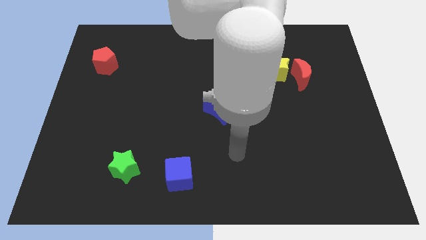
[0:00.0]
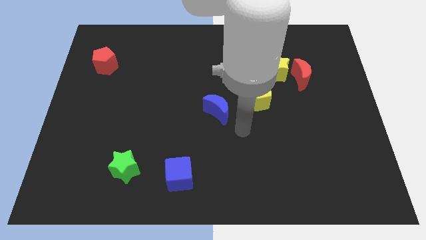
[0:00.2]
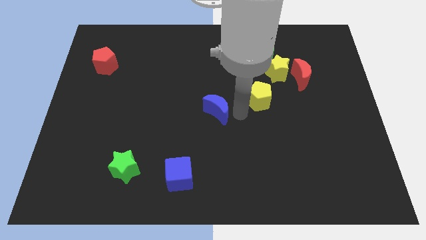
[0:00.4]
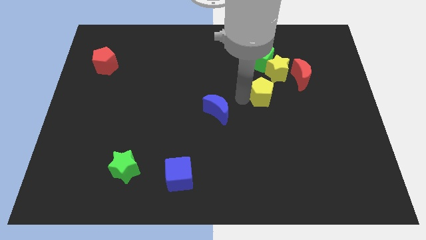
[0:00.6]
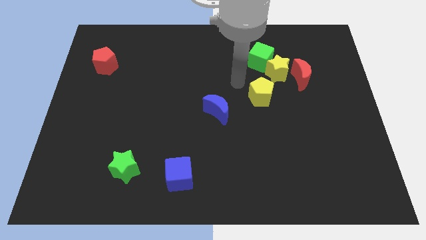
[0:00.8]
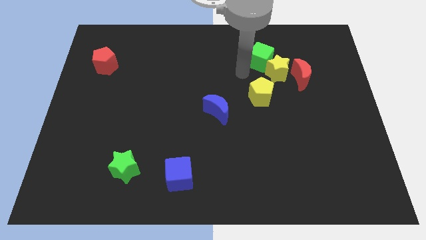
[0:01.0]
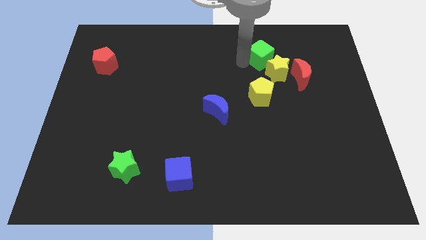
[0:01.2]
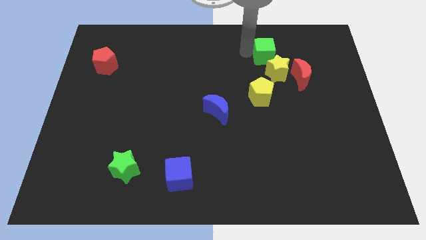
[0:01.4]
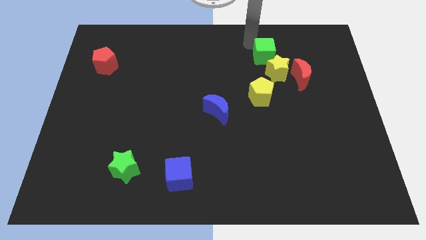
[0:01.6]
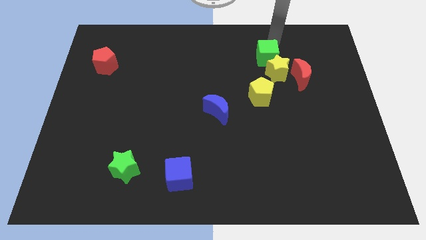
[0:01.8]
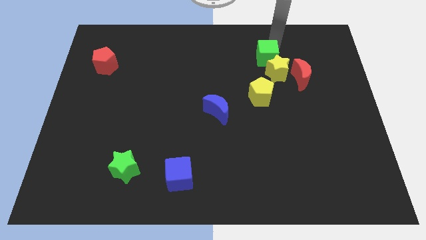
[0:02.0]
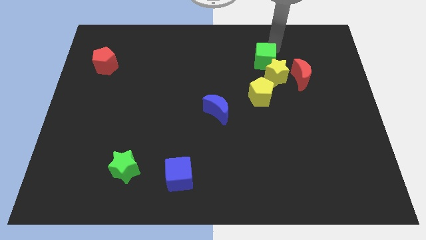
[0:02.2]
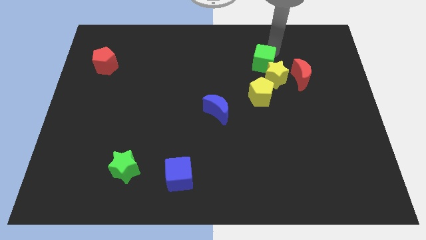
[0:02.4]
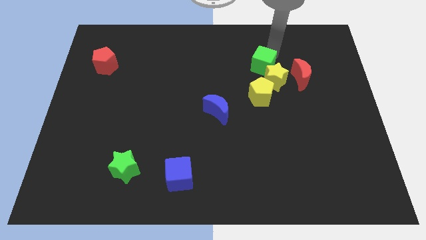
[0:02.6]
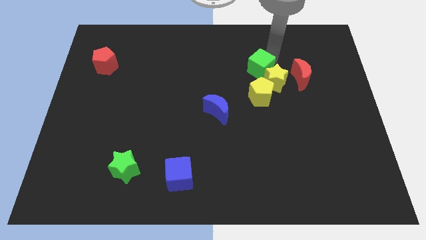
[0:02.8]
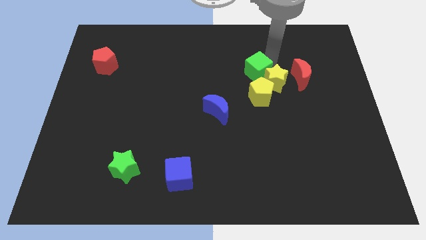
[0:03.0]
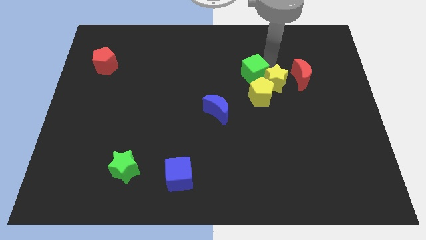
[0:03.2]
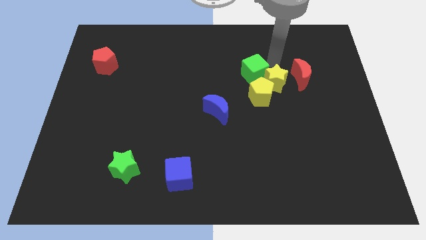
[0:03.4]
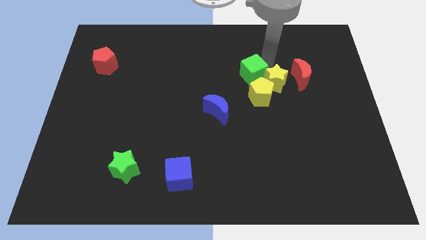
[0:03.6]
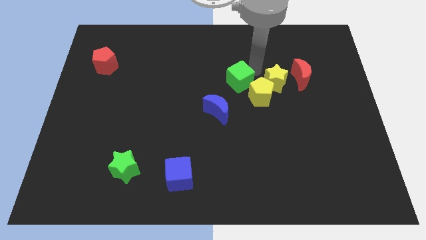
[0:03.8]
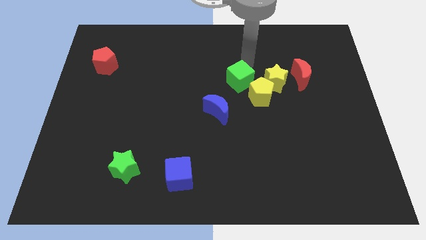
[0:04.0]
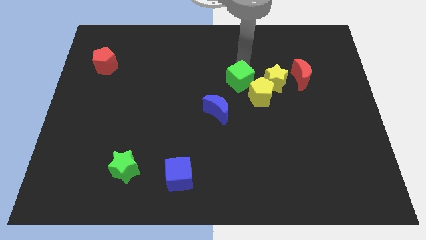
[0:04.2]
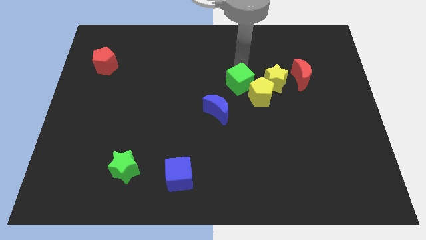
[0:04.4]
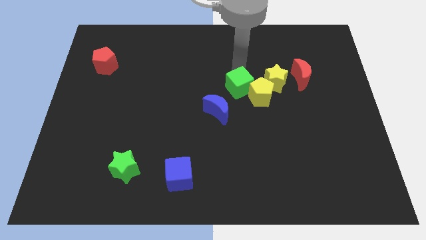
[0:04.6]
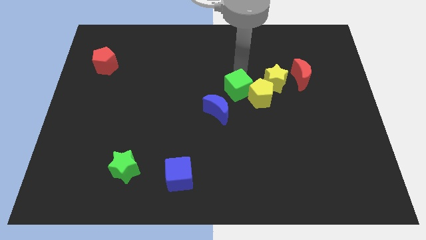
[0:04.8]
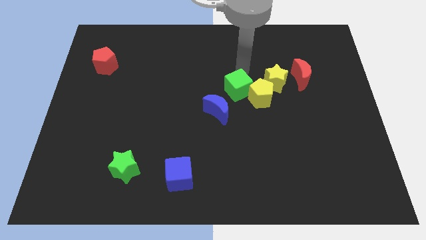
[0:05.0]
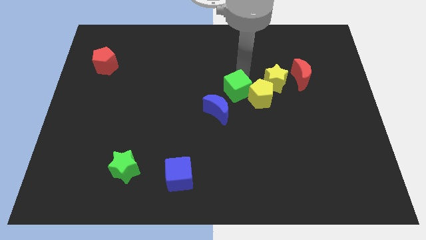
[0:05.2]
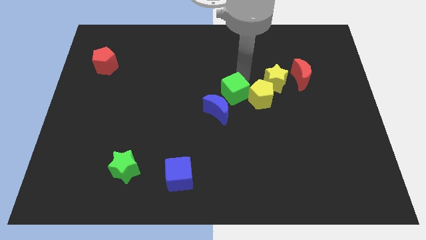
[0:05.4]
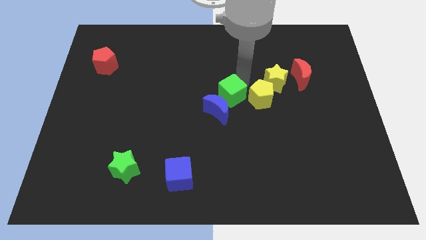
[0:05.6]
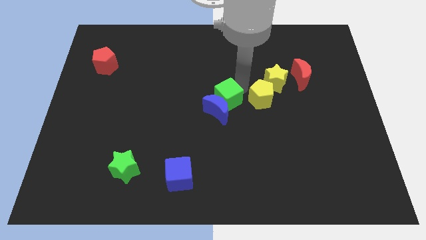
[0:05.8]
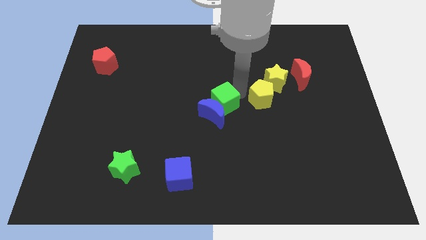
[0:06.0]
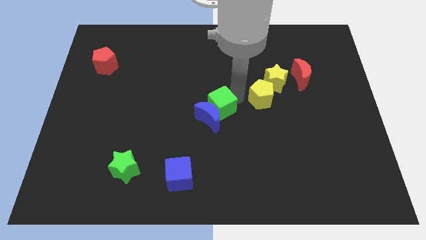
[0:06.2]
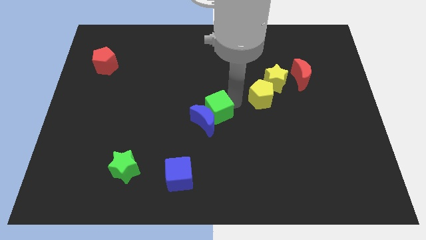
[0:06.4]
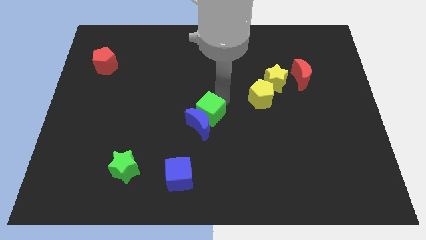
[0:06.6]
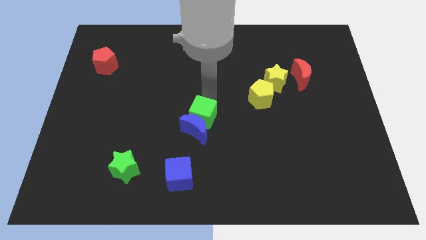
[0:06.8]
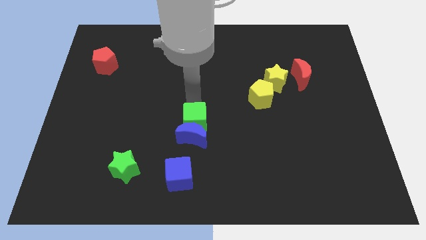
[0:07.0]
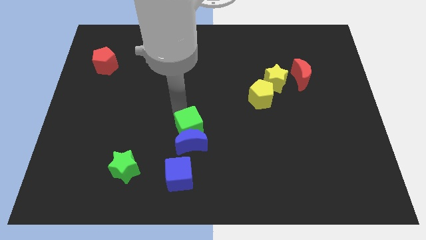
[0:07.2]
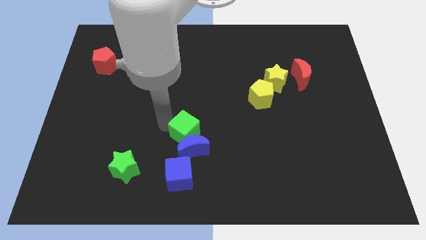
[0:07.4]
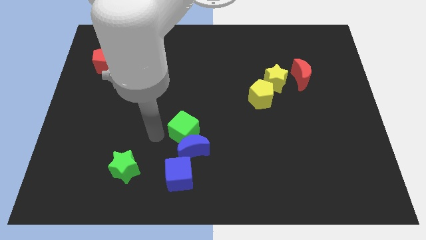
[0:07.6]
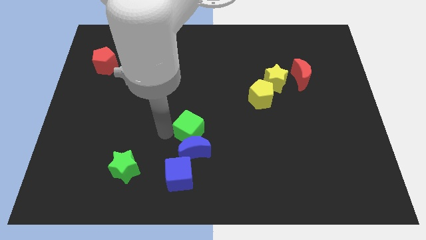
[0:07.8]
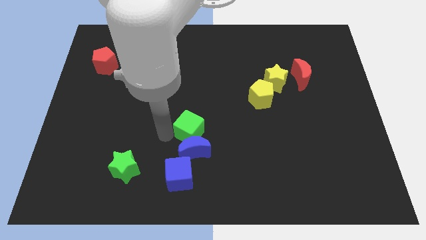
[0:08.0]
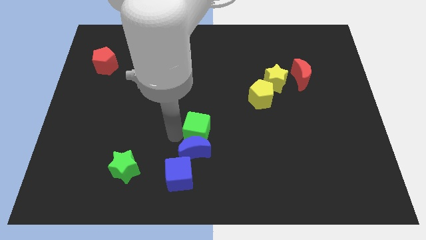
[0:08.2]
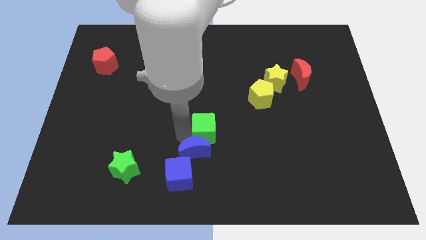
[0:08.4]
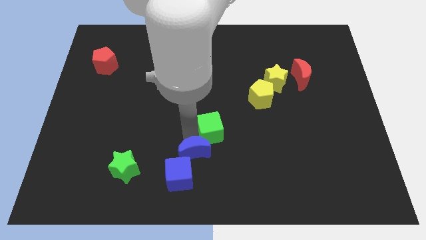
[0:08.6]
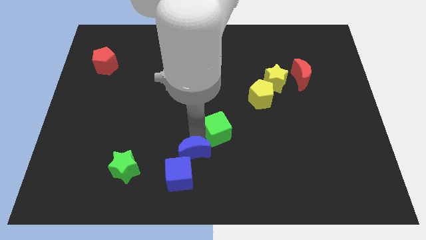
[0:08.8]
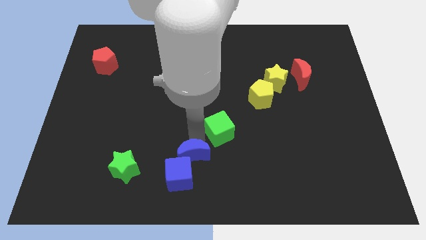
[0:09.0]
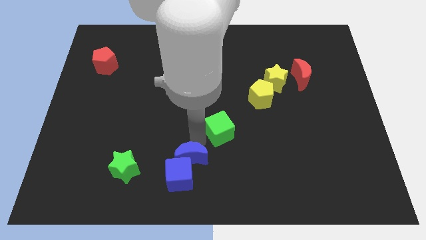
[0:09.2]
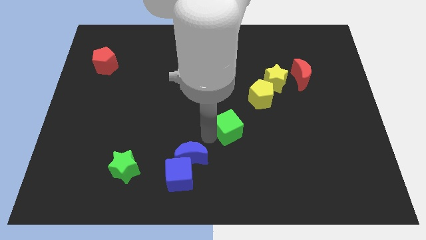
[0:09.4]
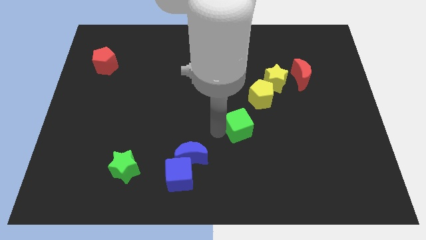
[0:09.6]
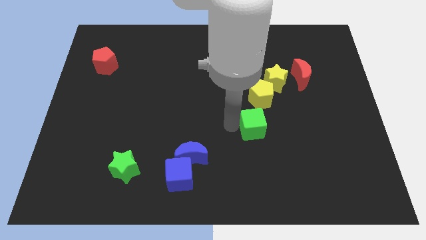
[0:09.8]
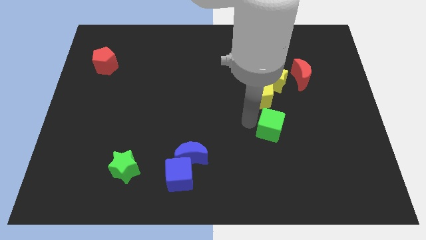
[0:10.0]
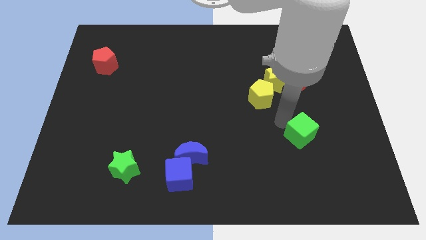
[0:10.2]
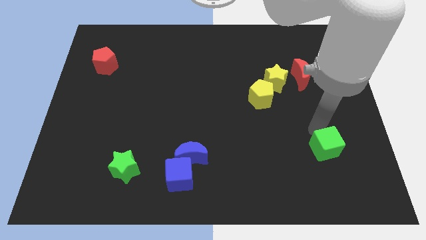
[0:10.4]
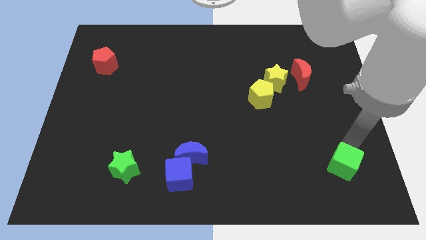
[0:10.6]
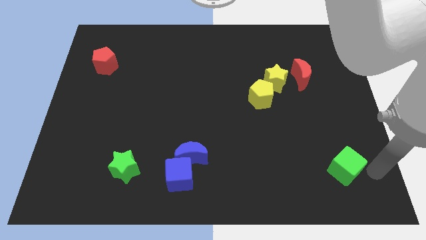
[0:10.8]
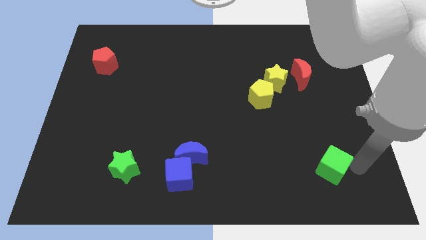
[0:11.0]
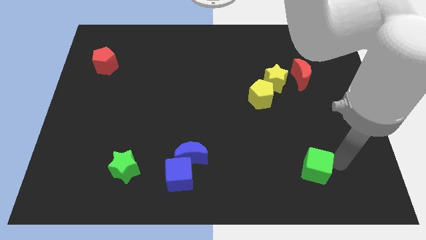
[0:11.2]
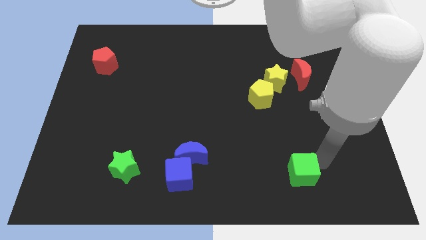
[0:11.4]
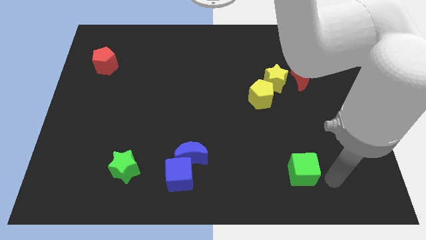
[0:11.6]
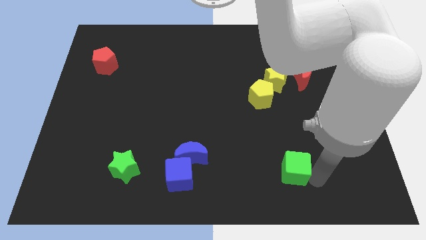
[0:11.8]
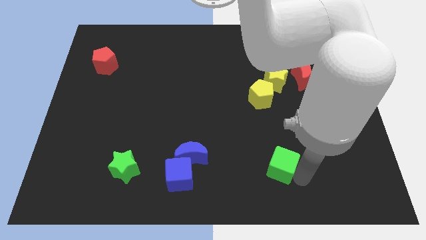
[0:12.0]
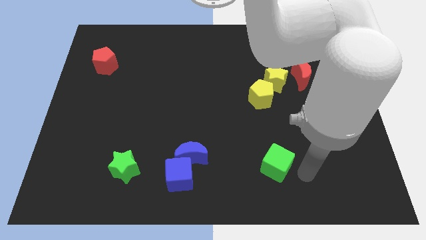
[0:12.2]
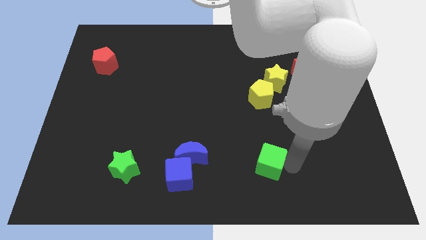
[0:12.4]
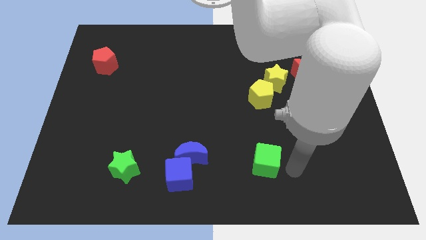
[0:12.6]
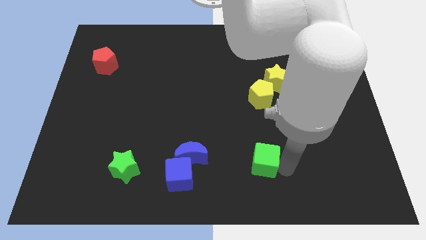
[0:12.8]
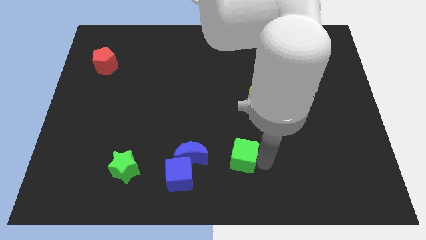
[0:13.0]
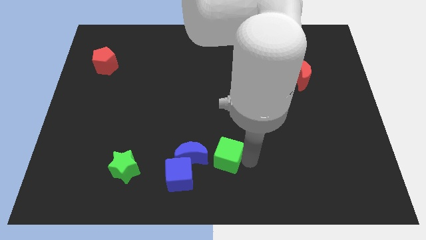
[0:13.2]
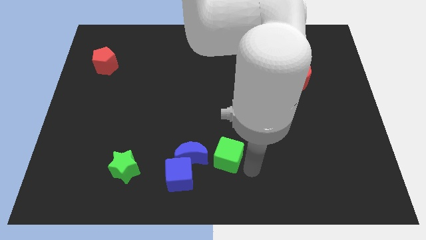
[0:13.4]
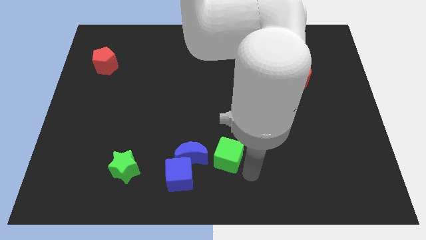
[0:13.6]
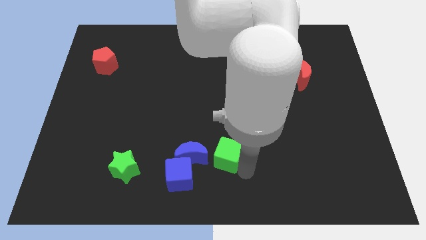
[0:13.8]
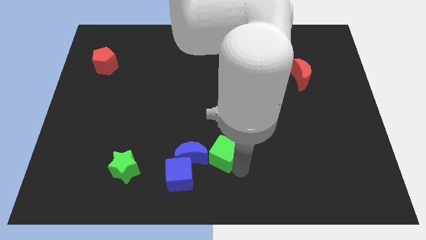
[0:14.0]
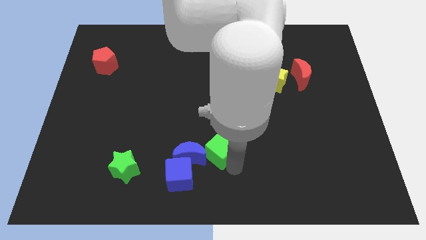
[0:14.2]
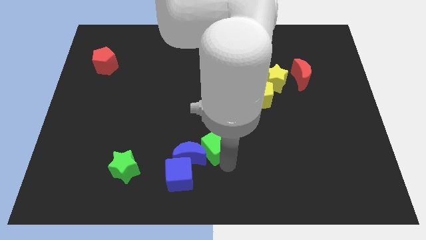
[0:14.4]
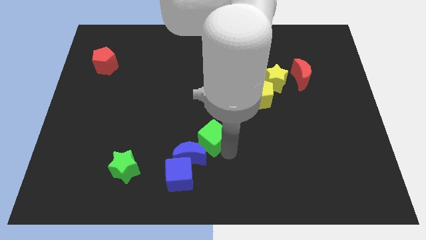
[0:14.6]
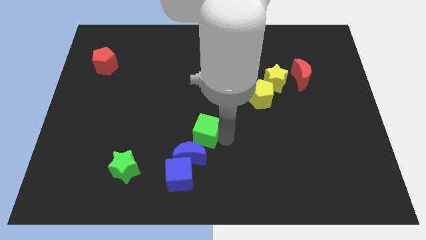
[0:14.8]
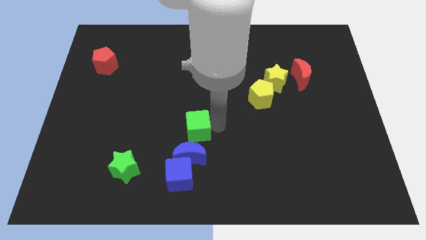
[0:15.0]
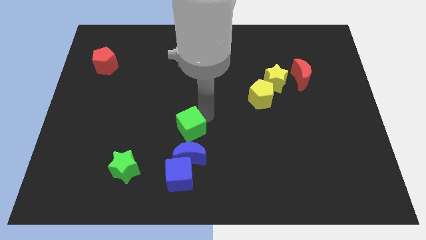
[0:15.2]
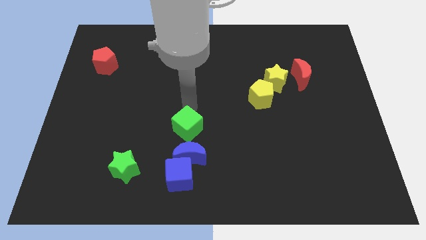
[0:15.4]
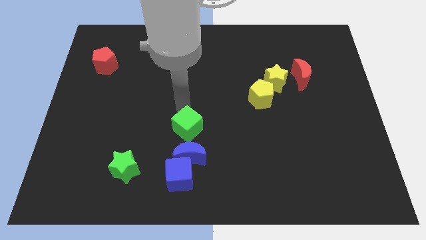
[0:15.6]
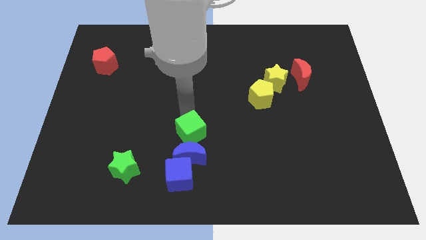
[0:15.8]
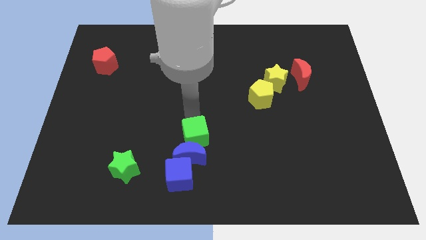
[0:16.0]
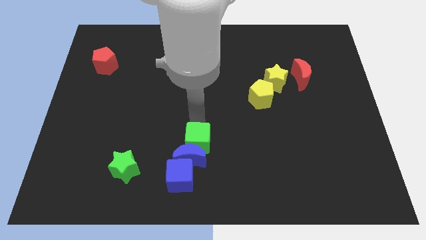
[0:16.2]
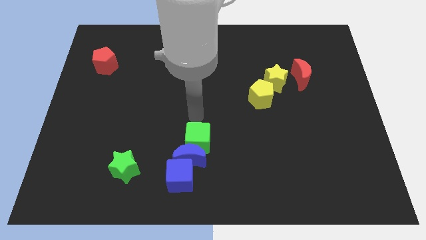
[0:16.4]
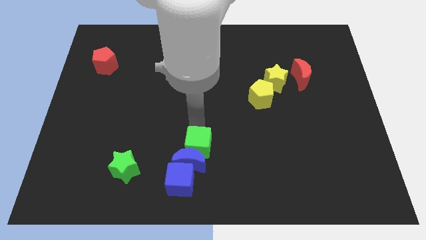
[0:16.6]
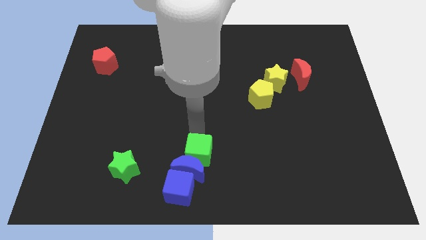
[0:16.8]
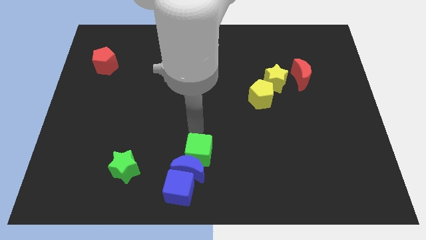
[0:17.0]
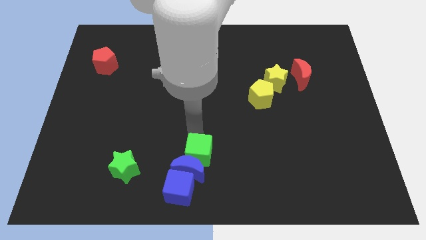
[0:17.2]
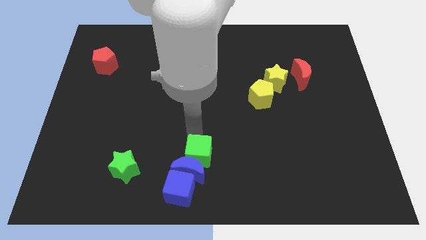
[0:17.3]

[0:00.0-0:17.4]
put the green cube to the right side of the green star
